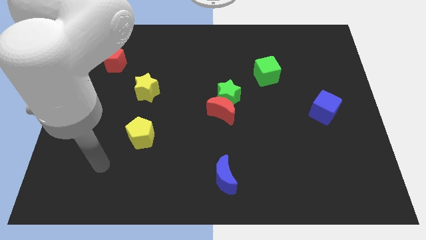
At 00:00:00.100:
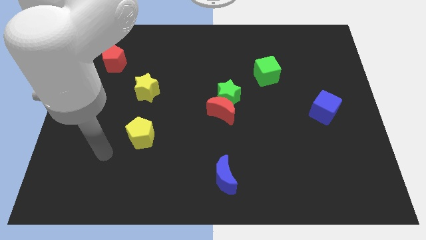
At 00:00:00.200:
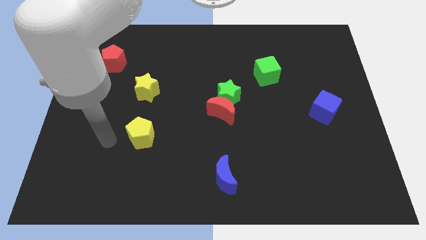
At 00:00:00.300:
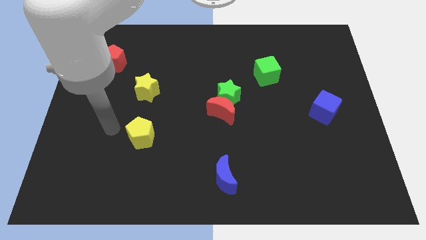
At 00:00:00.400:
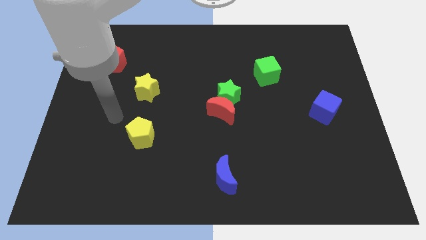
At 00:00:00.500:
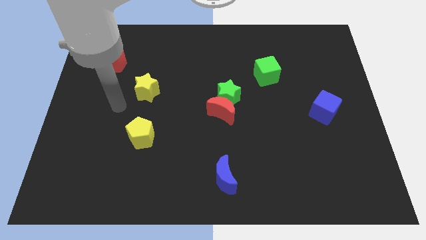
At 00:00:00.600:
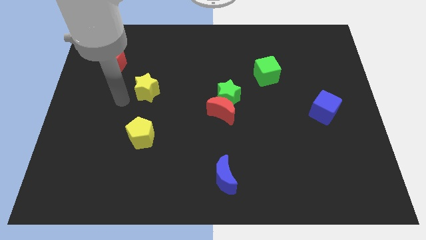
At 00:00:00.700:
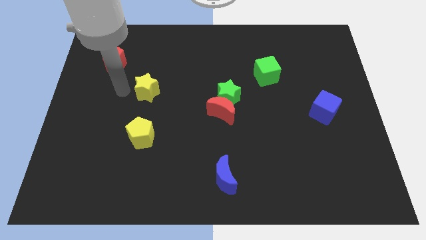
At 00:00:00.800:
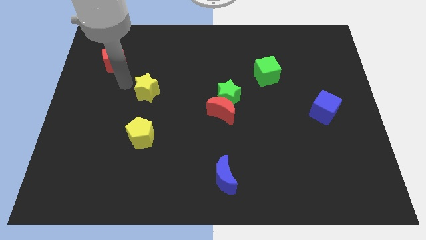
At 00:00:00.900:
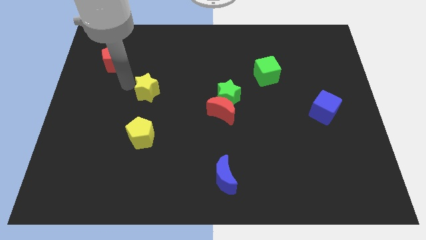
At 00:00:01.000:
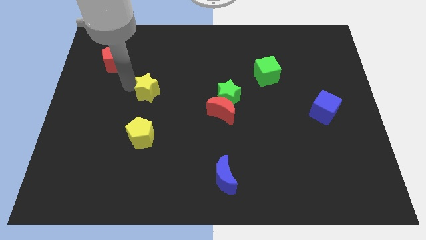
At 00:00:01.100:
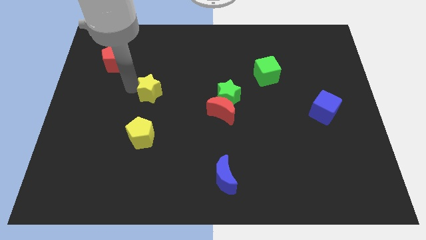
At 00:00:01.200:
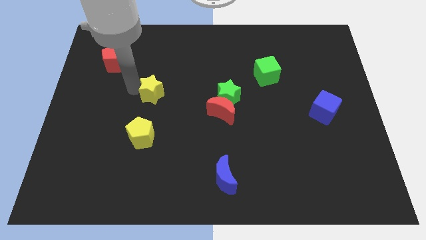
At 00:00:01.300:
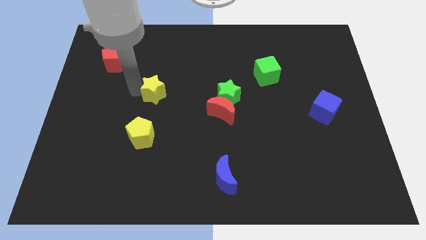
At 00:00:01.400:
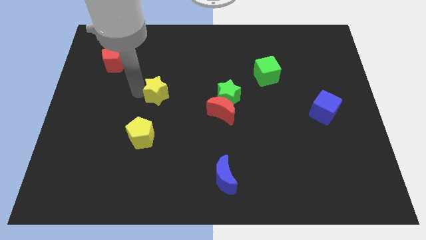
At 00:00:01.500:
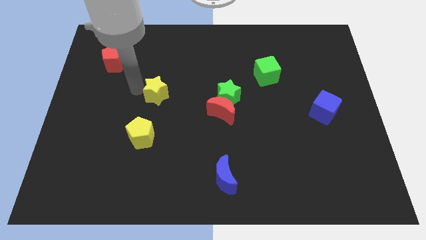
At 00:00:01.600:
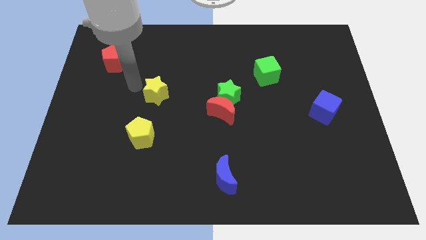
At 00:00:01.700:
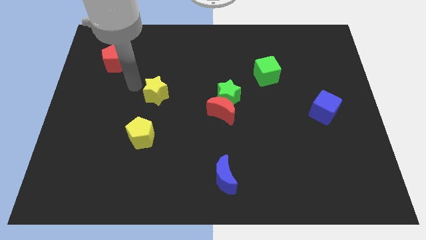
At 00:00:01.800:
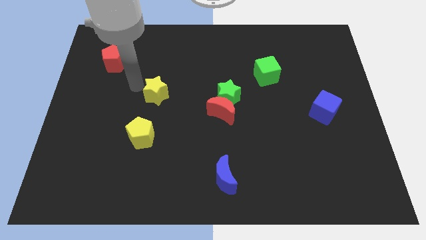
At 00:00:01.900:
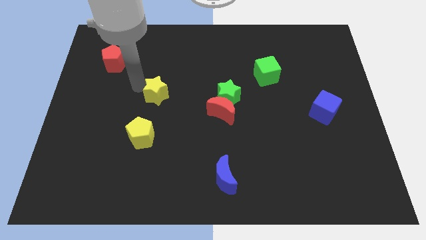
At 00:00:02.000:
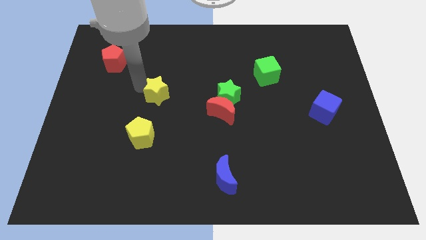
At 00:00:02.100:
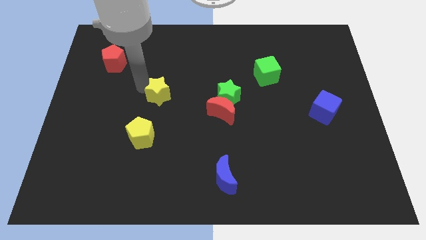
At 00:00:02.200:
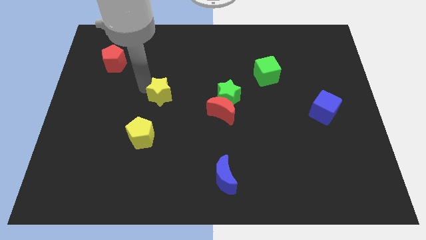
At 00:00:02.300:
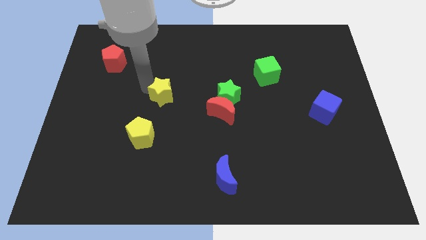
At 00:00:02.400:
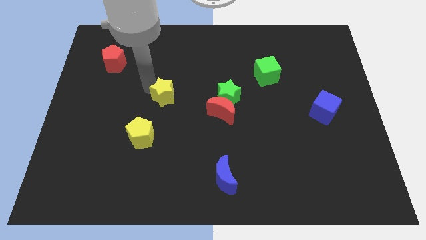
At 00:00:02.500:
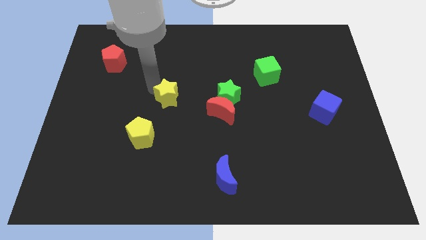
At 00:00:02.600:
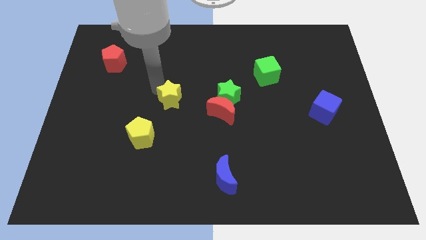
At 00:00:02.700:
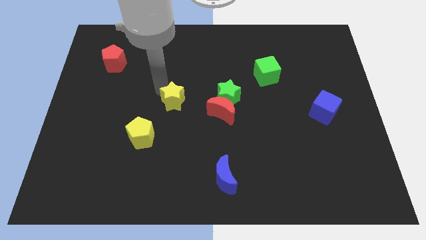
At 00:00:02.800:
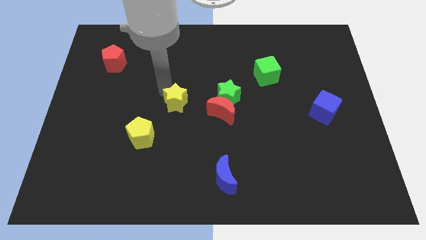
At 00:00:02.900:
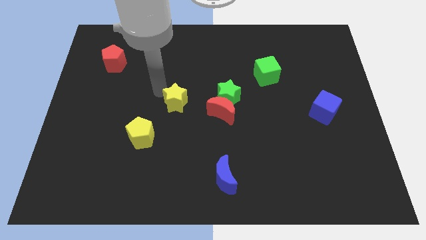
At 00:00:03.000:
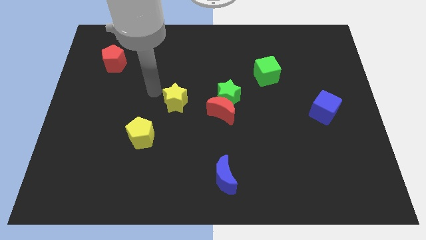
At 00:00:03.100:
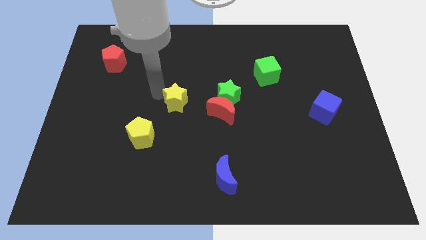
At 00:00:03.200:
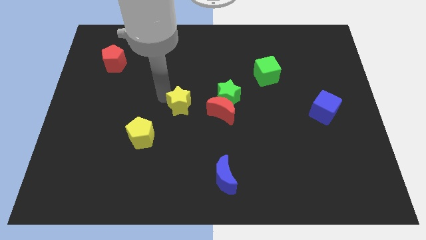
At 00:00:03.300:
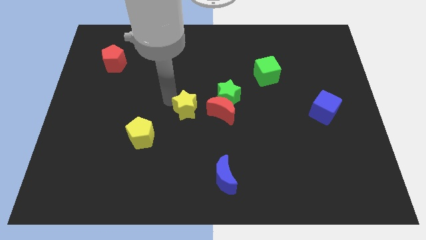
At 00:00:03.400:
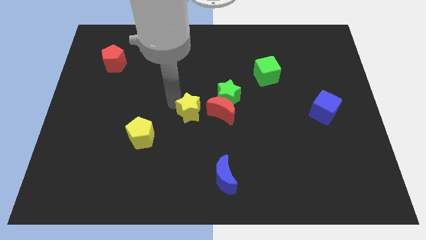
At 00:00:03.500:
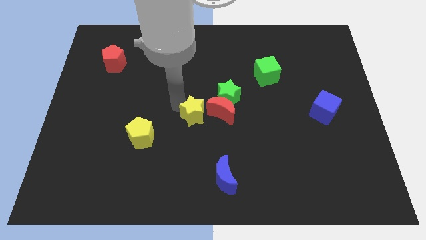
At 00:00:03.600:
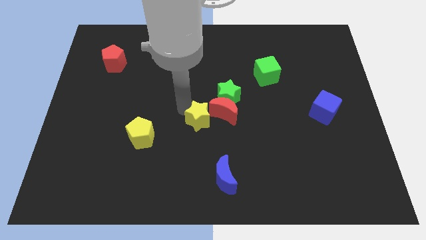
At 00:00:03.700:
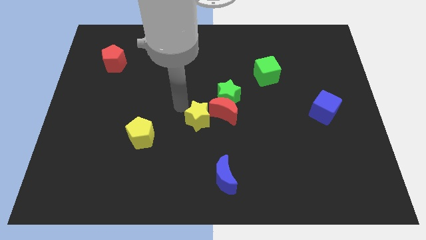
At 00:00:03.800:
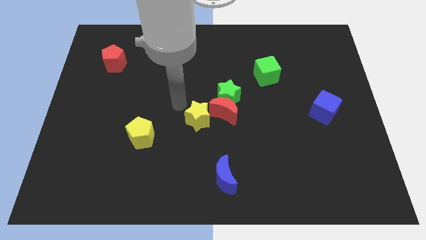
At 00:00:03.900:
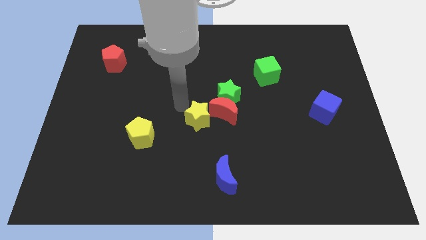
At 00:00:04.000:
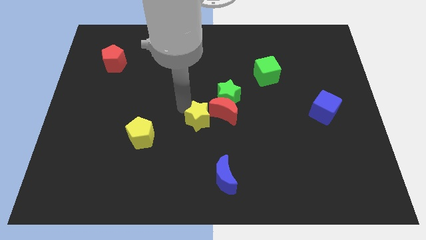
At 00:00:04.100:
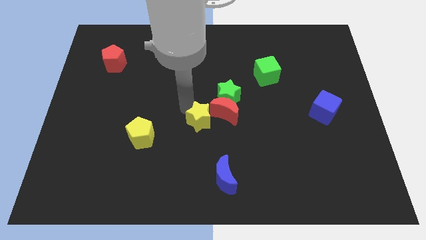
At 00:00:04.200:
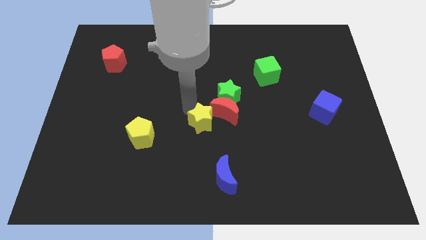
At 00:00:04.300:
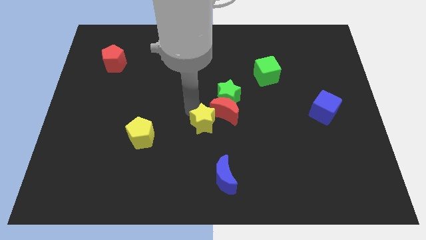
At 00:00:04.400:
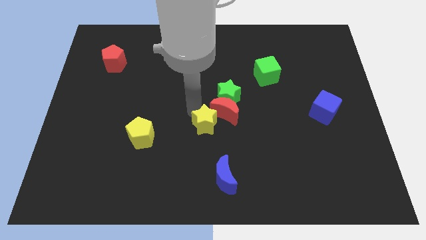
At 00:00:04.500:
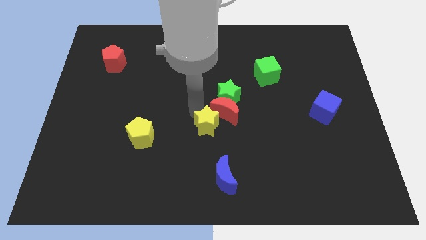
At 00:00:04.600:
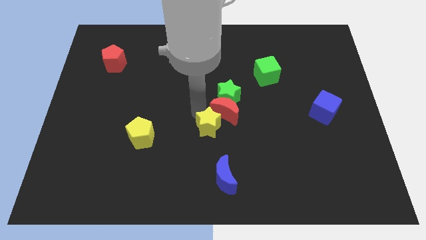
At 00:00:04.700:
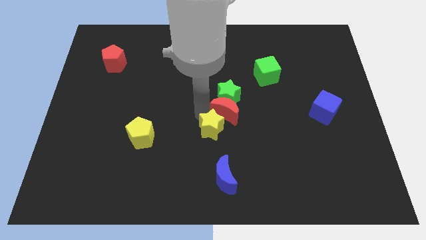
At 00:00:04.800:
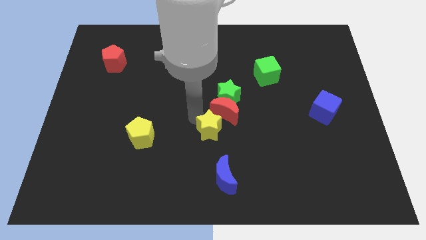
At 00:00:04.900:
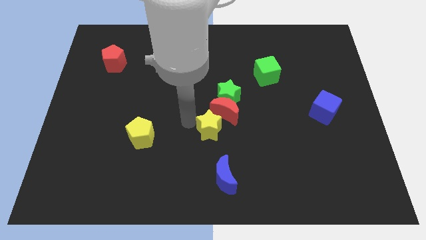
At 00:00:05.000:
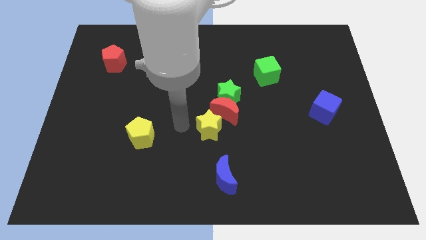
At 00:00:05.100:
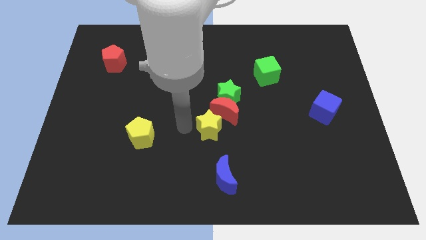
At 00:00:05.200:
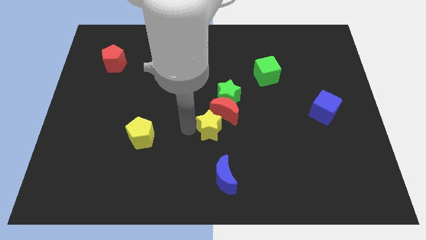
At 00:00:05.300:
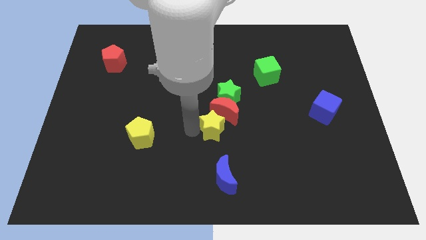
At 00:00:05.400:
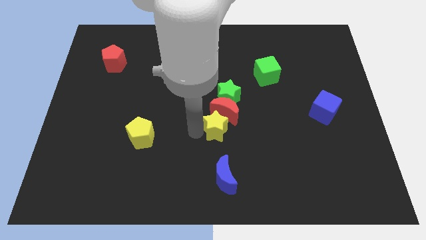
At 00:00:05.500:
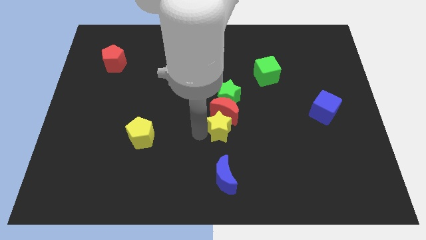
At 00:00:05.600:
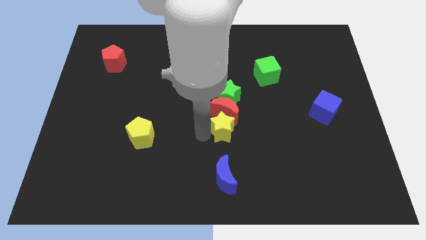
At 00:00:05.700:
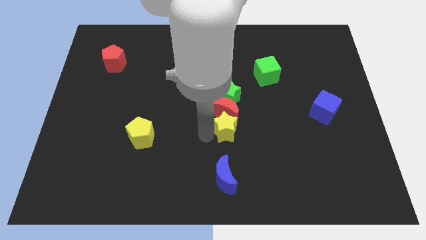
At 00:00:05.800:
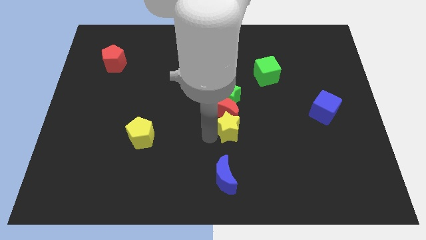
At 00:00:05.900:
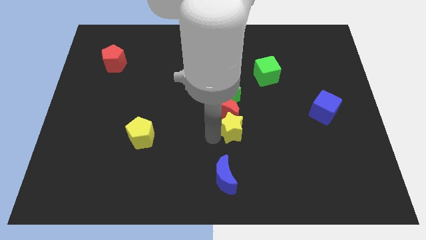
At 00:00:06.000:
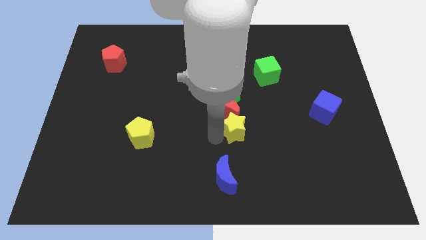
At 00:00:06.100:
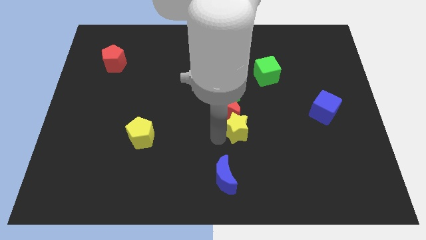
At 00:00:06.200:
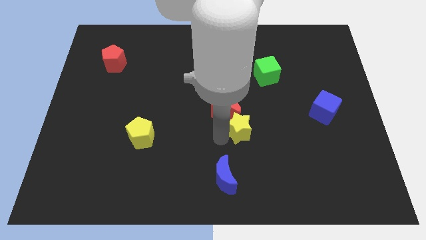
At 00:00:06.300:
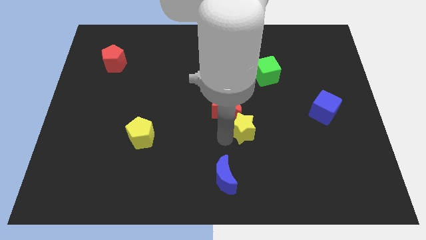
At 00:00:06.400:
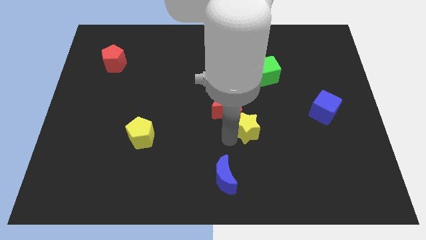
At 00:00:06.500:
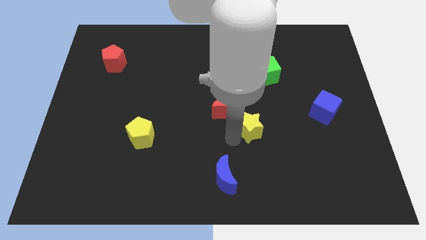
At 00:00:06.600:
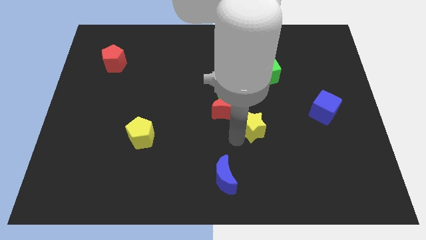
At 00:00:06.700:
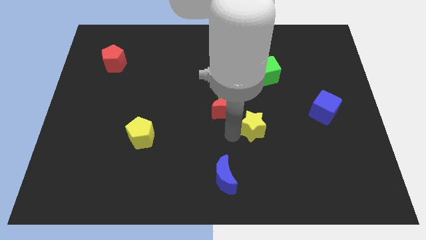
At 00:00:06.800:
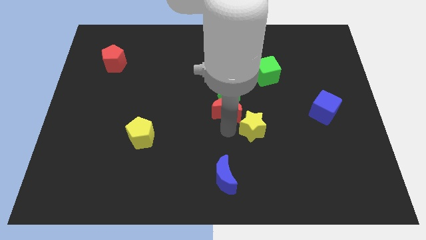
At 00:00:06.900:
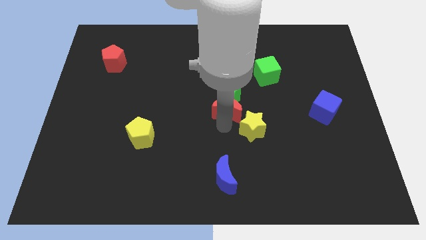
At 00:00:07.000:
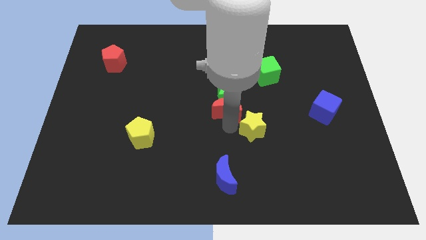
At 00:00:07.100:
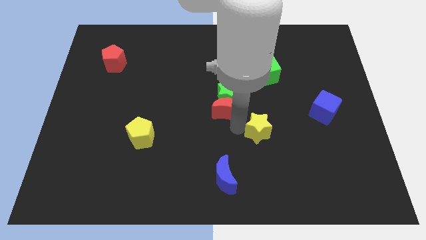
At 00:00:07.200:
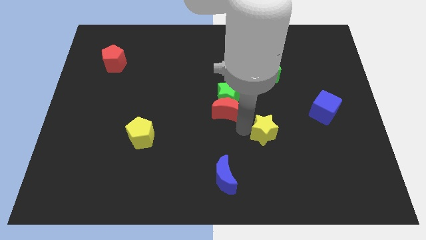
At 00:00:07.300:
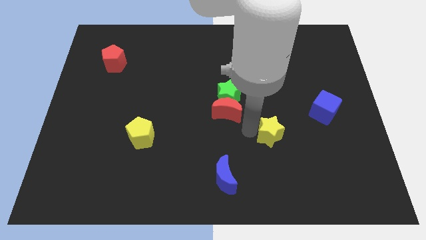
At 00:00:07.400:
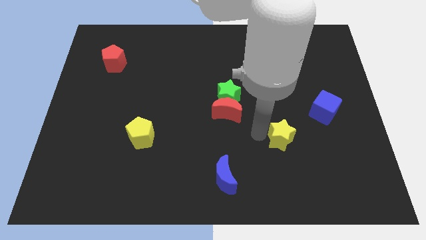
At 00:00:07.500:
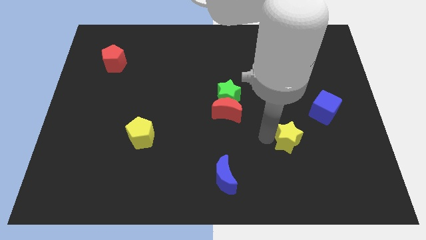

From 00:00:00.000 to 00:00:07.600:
put the yellow star to the bottom left of the blue cube
